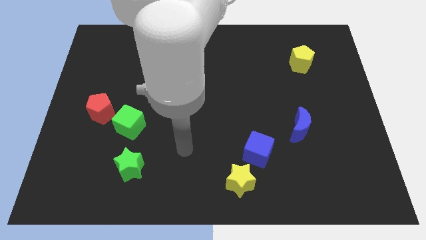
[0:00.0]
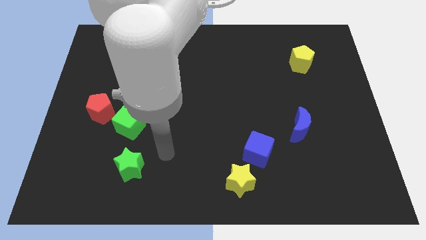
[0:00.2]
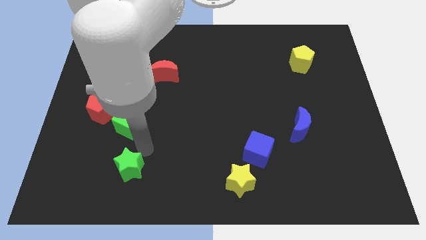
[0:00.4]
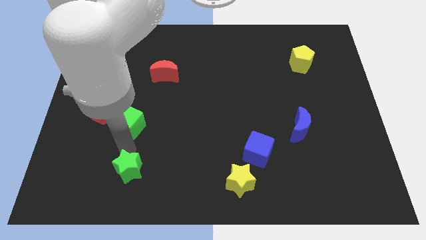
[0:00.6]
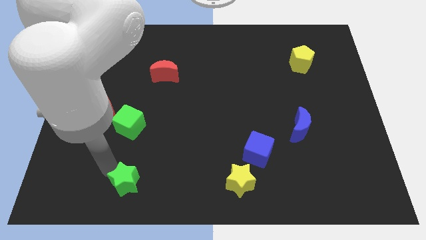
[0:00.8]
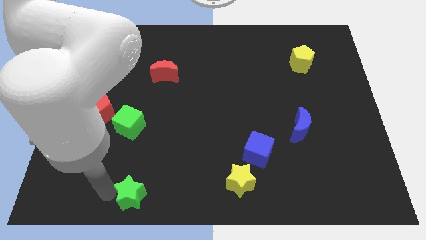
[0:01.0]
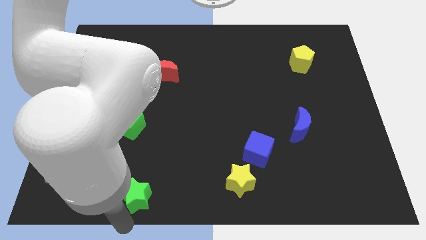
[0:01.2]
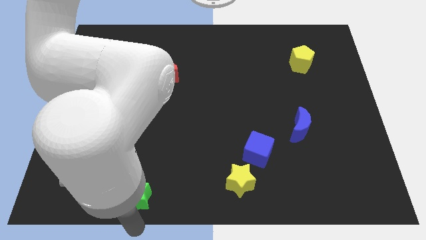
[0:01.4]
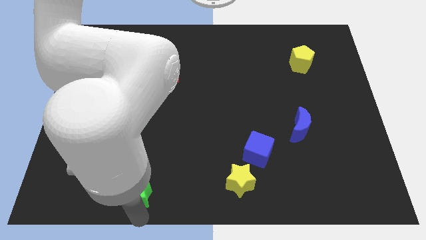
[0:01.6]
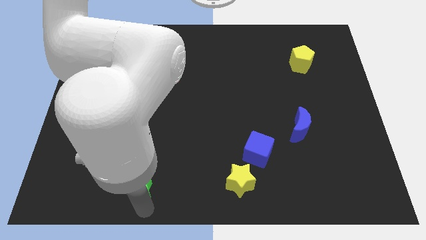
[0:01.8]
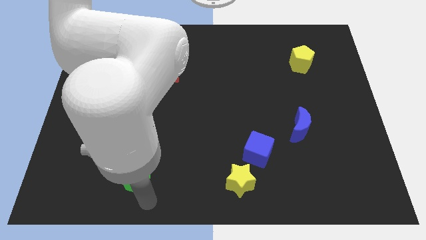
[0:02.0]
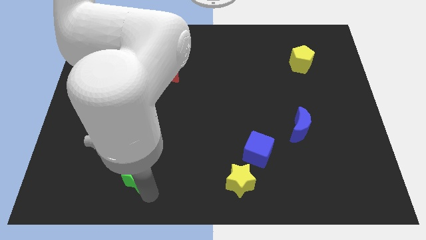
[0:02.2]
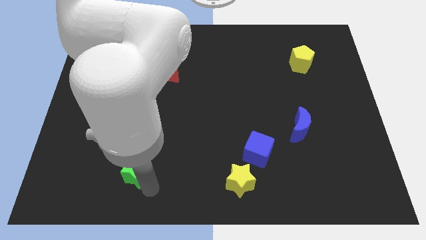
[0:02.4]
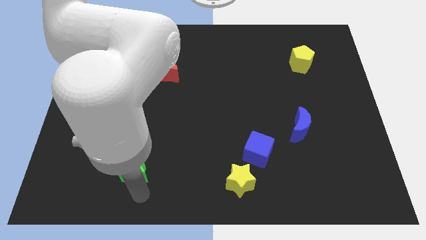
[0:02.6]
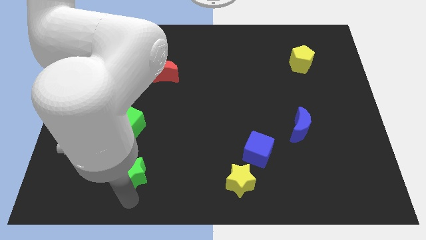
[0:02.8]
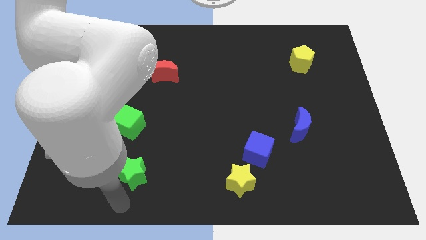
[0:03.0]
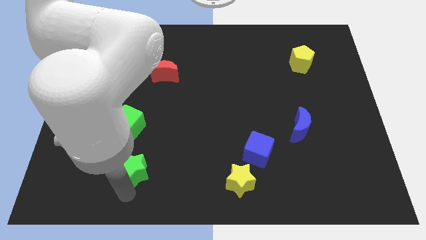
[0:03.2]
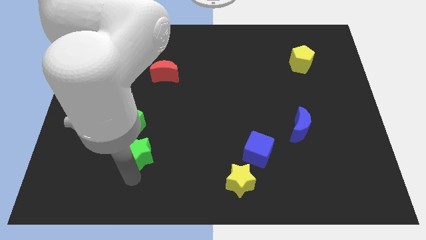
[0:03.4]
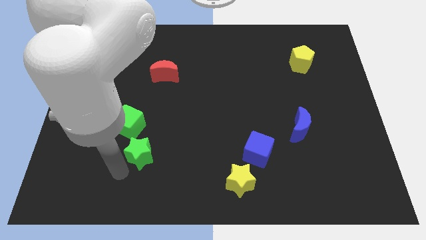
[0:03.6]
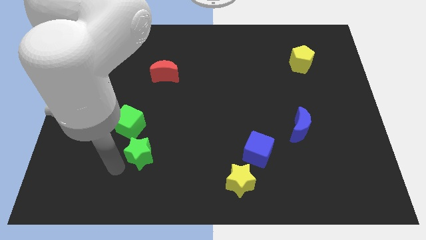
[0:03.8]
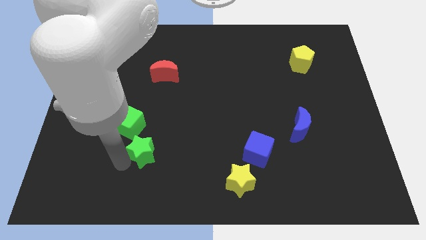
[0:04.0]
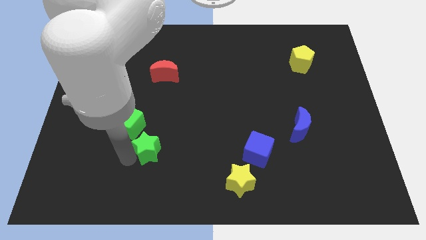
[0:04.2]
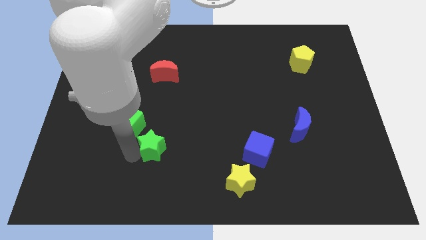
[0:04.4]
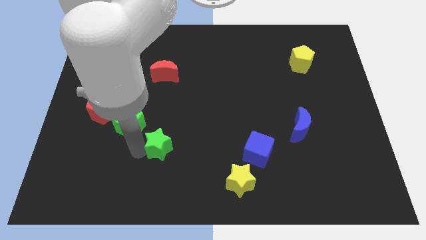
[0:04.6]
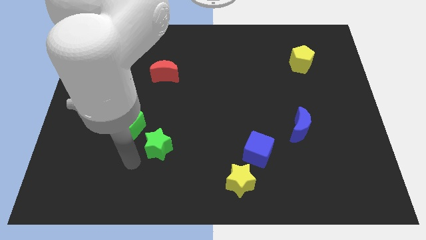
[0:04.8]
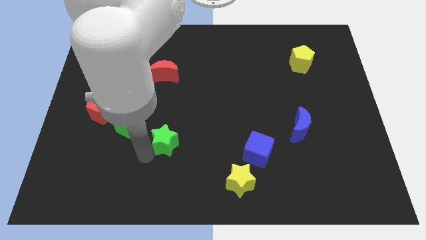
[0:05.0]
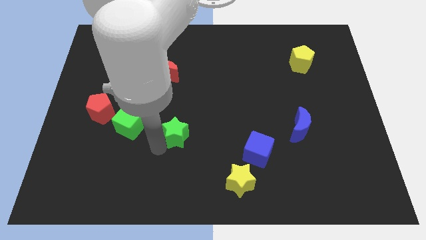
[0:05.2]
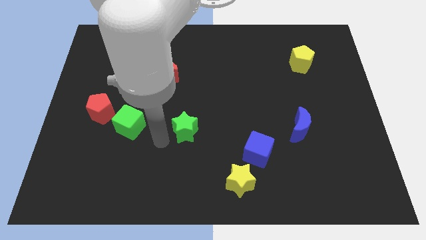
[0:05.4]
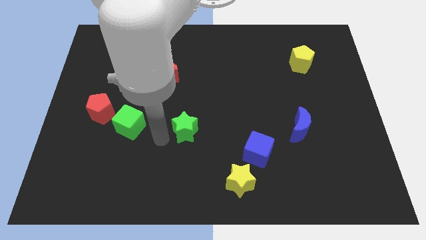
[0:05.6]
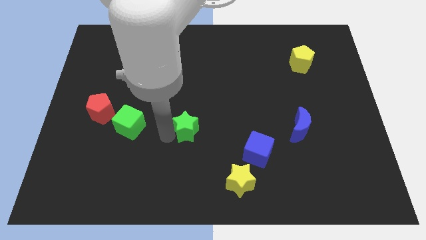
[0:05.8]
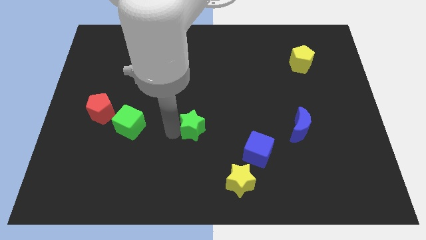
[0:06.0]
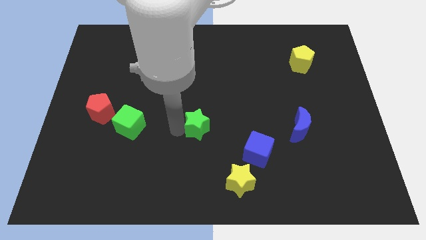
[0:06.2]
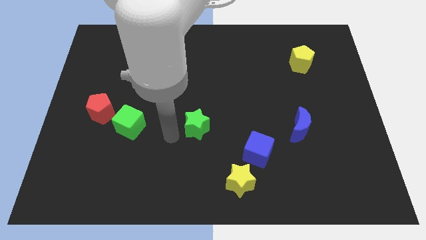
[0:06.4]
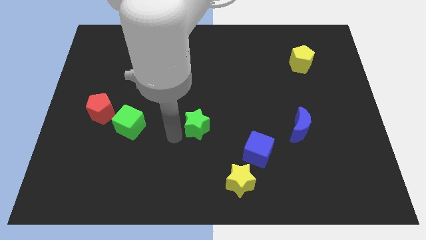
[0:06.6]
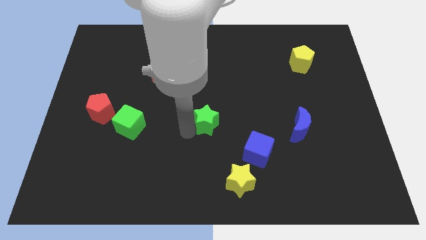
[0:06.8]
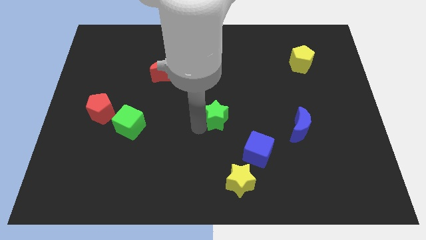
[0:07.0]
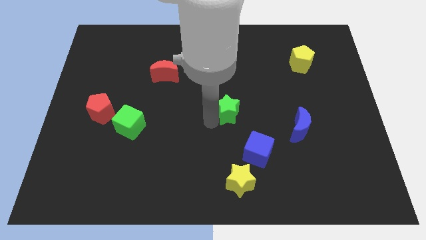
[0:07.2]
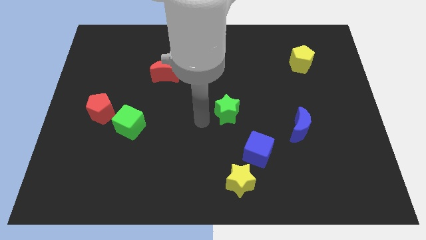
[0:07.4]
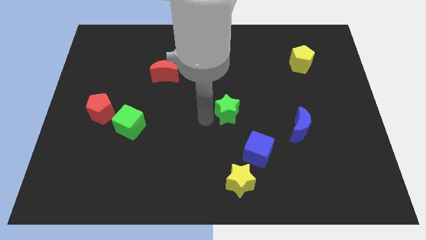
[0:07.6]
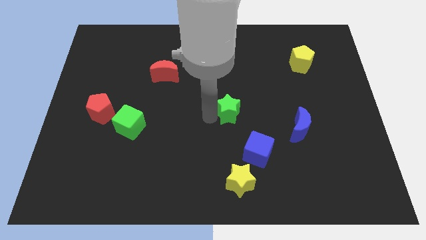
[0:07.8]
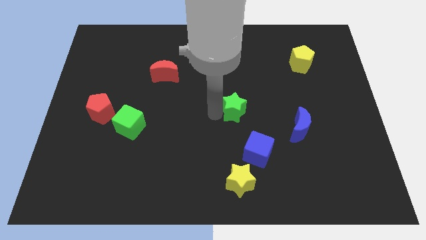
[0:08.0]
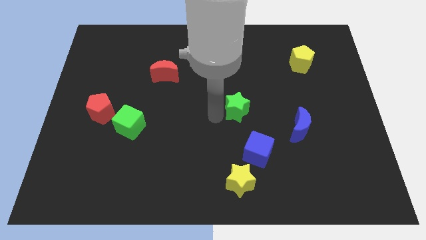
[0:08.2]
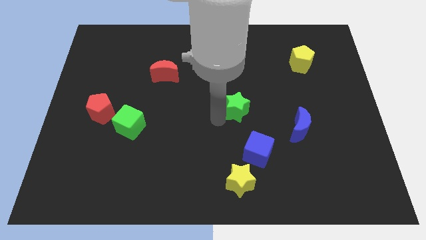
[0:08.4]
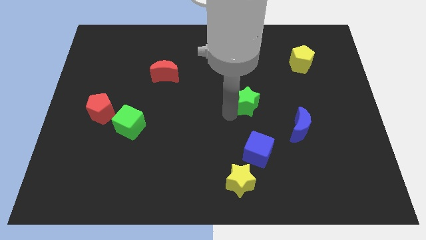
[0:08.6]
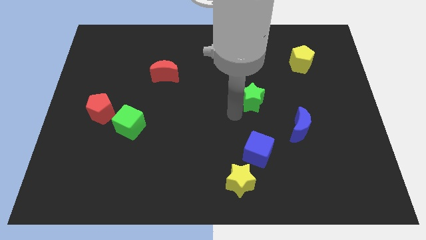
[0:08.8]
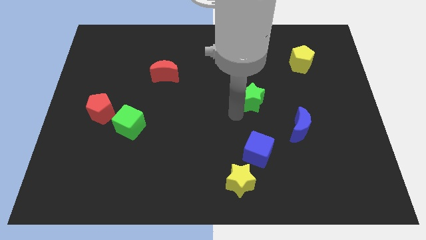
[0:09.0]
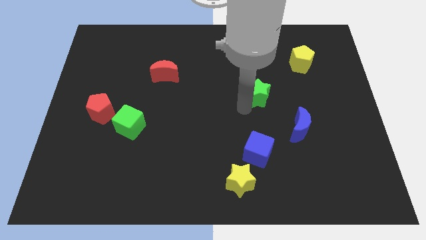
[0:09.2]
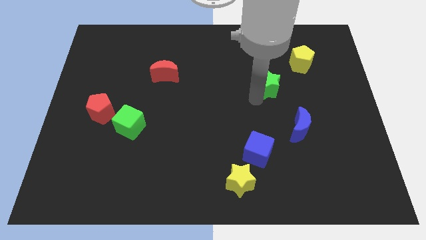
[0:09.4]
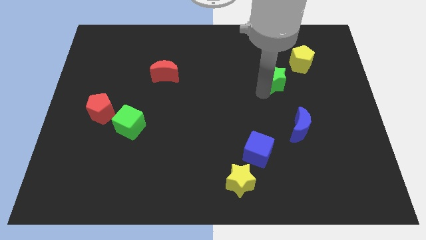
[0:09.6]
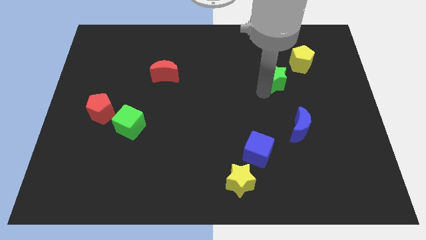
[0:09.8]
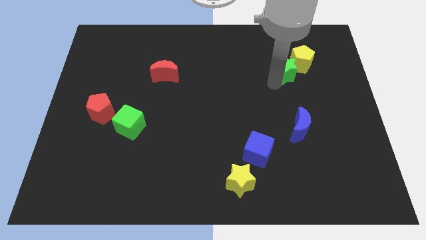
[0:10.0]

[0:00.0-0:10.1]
move the green star to the yellow pentagon

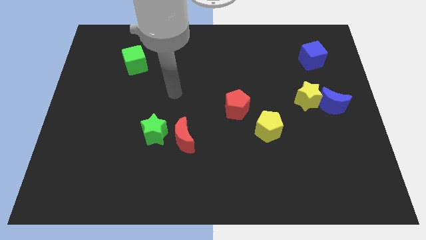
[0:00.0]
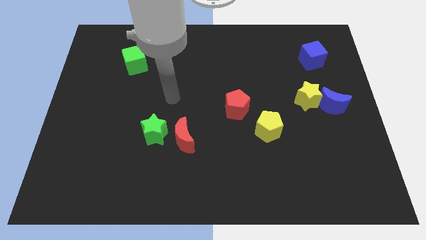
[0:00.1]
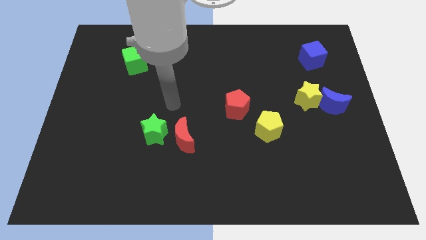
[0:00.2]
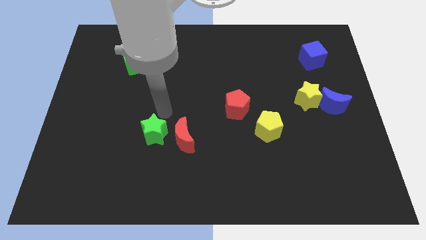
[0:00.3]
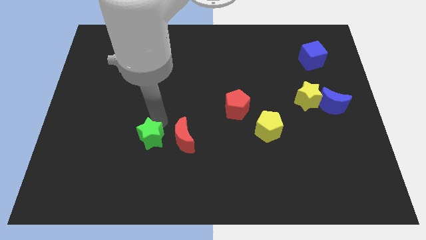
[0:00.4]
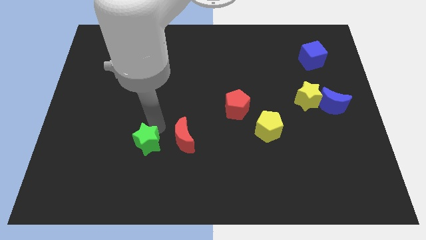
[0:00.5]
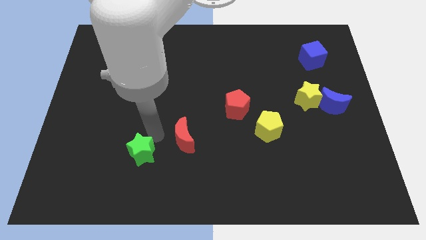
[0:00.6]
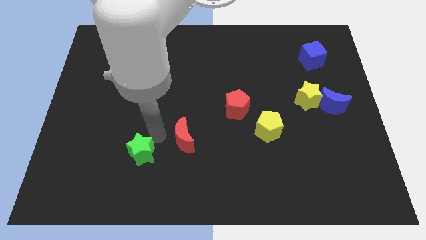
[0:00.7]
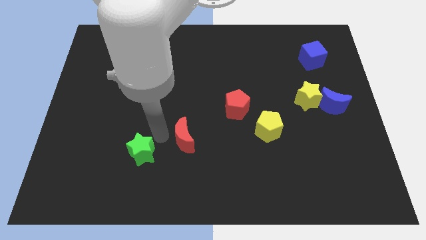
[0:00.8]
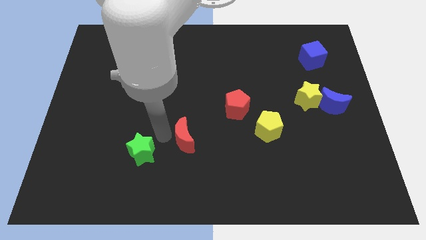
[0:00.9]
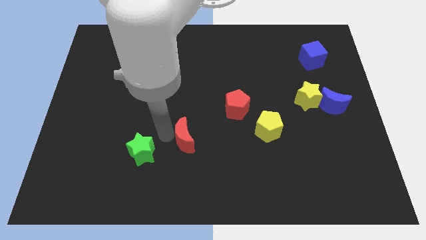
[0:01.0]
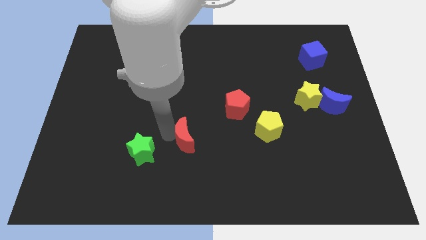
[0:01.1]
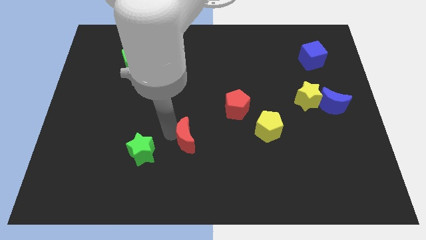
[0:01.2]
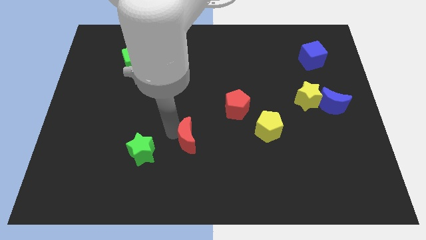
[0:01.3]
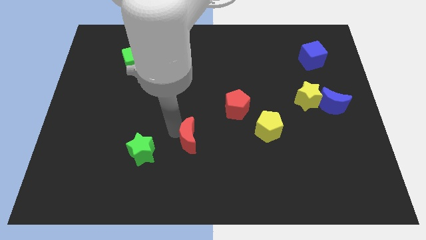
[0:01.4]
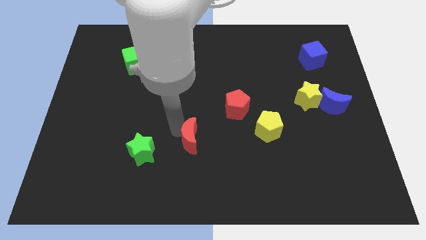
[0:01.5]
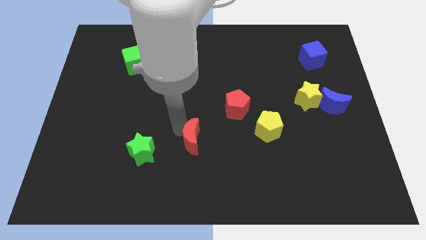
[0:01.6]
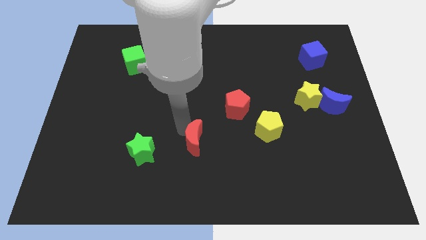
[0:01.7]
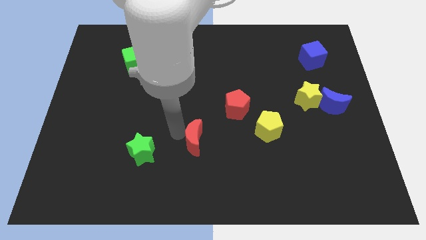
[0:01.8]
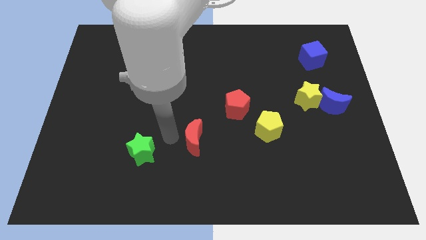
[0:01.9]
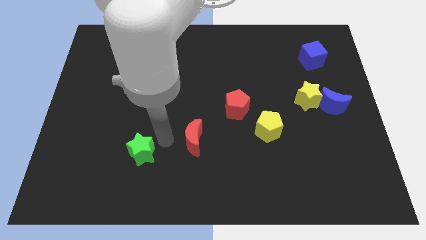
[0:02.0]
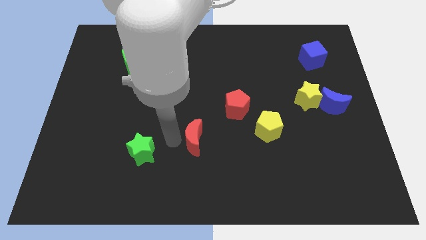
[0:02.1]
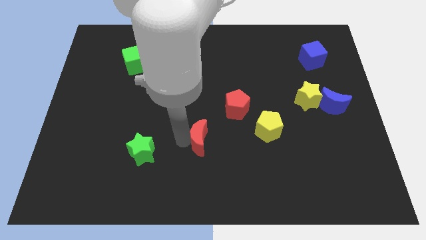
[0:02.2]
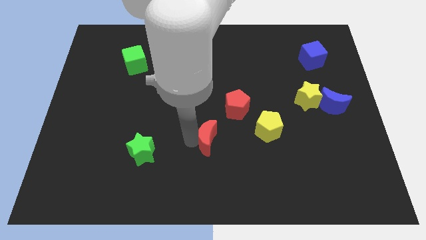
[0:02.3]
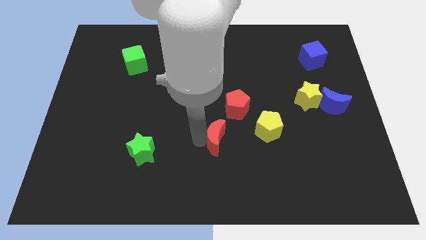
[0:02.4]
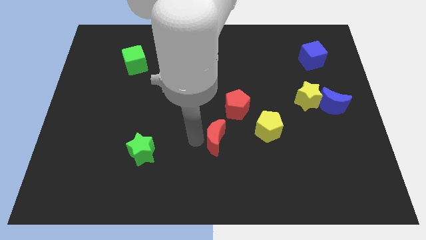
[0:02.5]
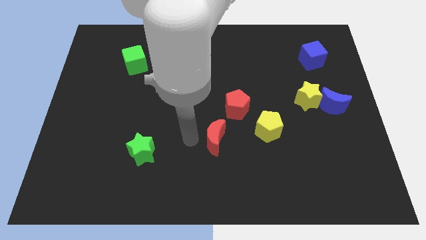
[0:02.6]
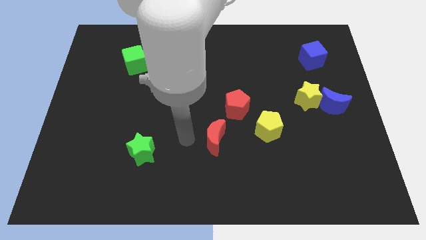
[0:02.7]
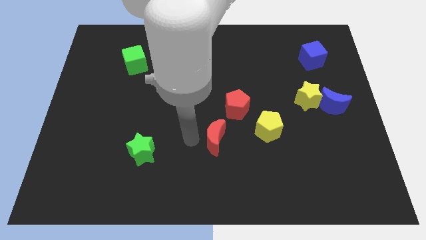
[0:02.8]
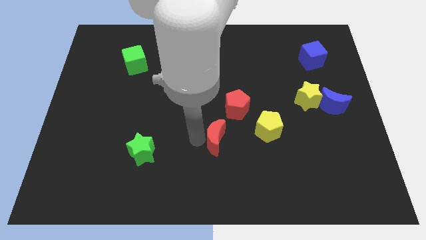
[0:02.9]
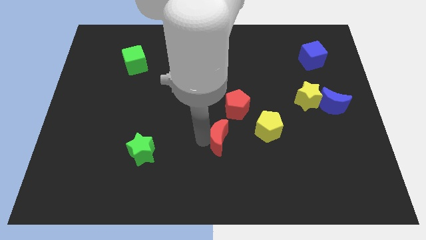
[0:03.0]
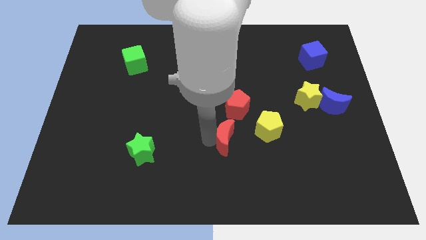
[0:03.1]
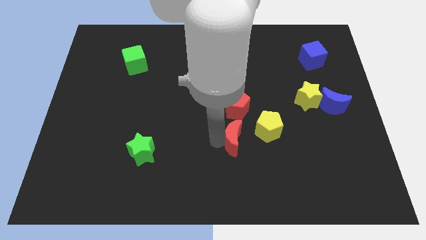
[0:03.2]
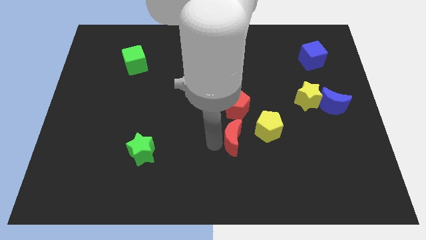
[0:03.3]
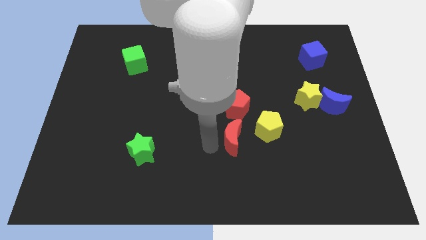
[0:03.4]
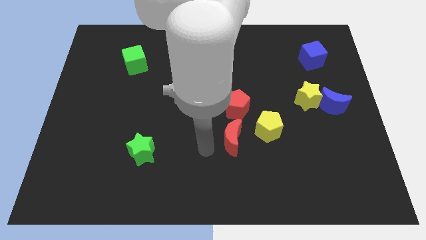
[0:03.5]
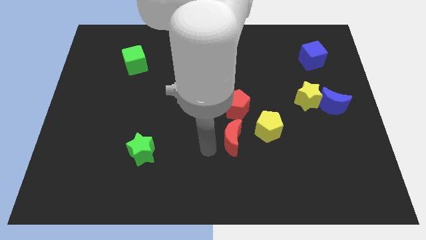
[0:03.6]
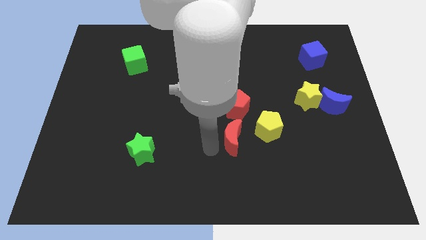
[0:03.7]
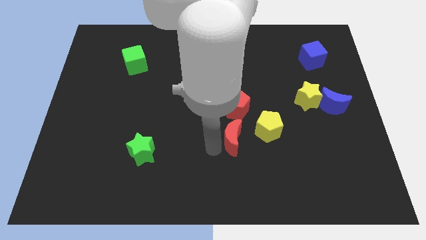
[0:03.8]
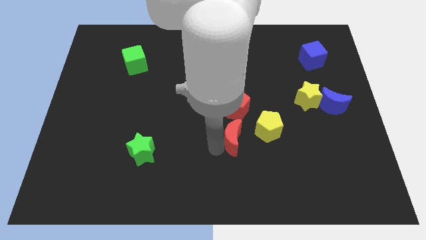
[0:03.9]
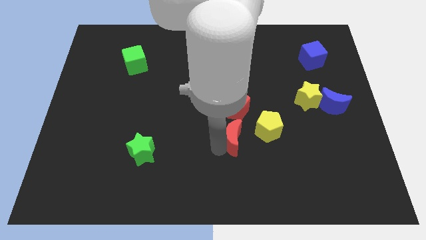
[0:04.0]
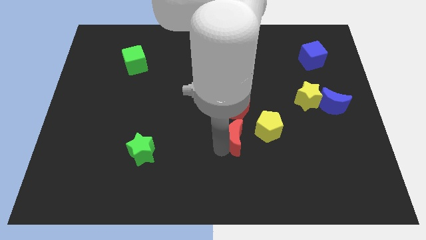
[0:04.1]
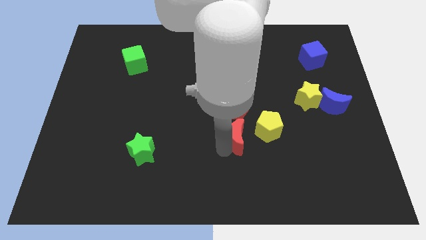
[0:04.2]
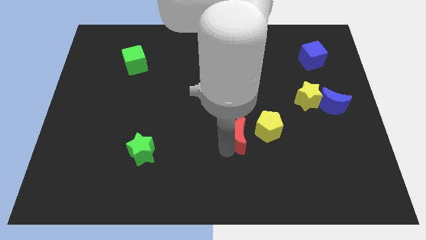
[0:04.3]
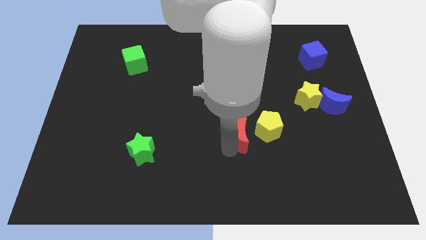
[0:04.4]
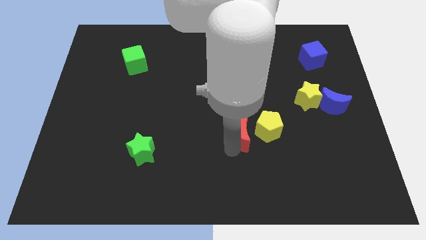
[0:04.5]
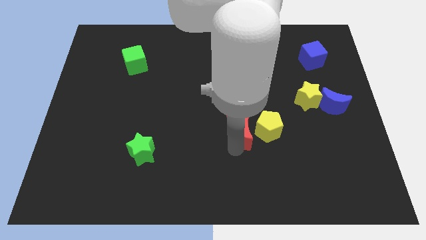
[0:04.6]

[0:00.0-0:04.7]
push the red moon towards the yellow pentagon
